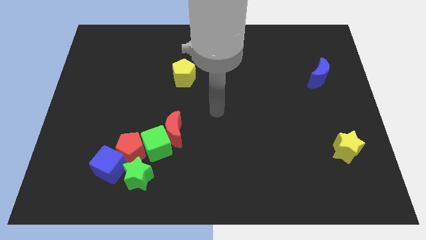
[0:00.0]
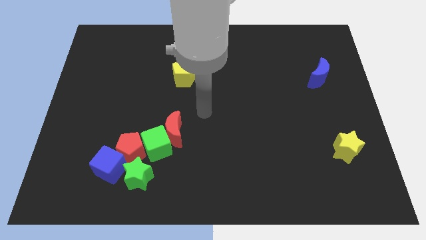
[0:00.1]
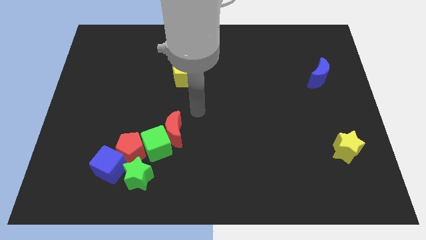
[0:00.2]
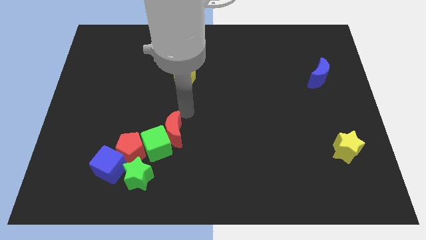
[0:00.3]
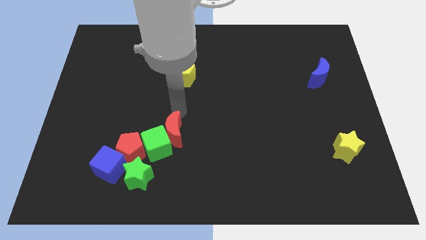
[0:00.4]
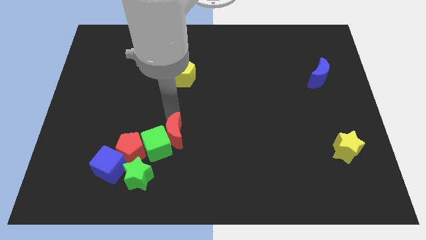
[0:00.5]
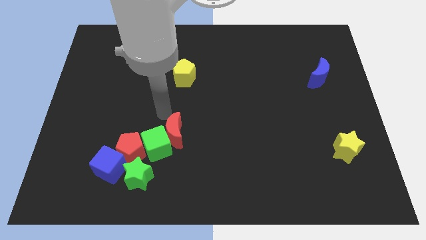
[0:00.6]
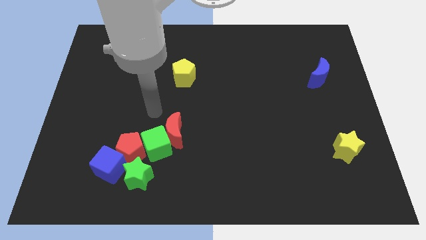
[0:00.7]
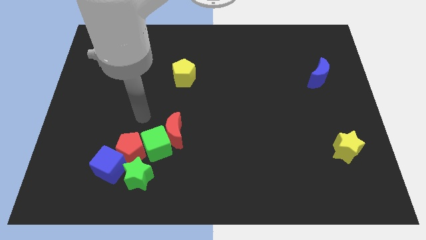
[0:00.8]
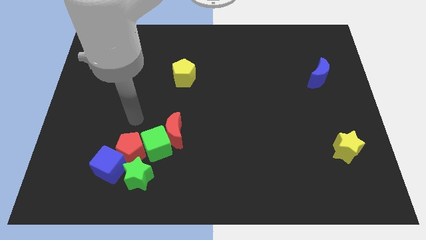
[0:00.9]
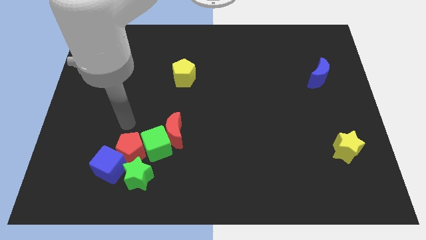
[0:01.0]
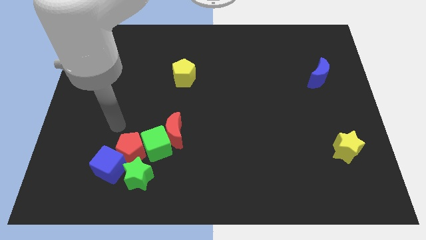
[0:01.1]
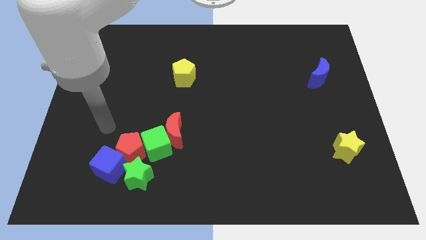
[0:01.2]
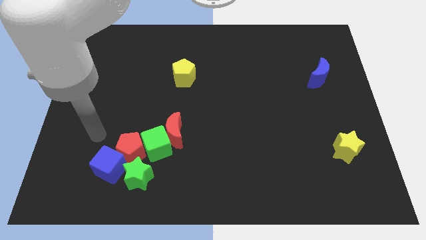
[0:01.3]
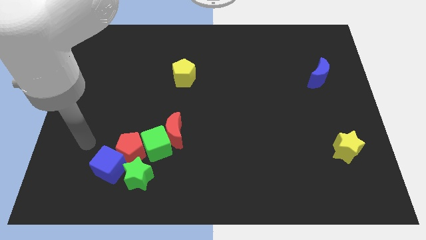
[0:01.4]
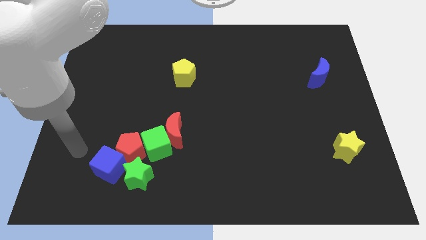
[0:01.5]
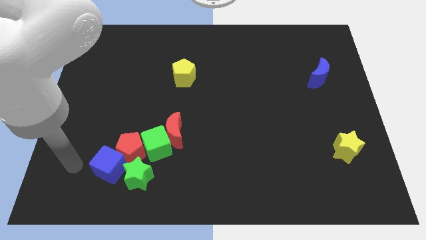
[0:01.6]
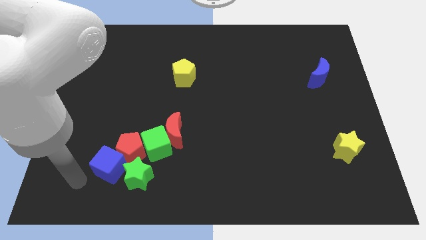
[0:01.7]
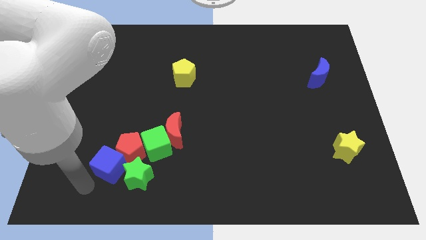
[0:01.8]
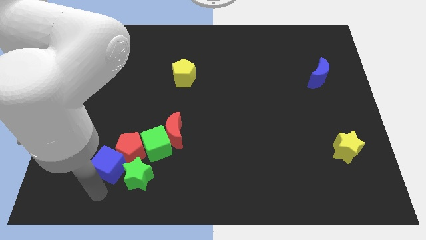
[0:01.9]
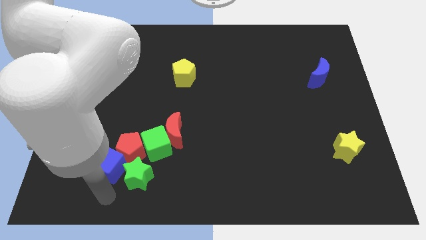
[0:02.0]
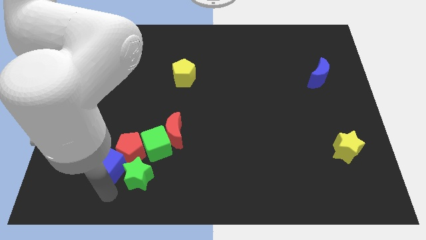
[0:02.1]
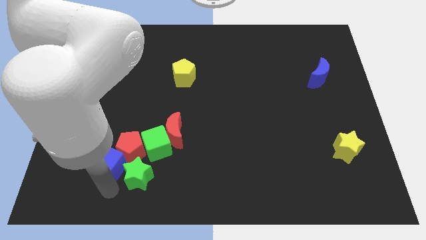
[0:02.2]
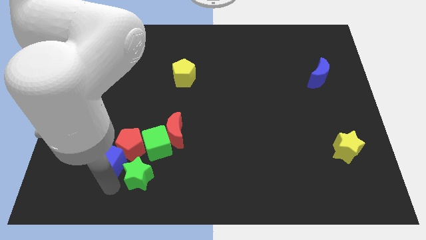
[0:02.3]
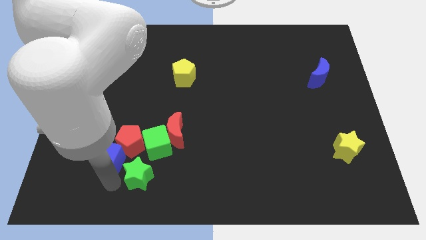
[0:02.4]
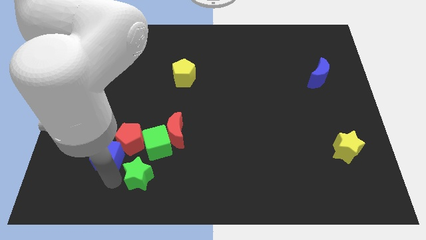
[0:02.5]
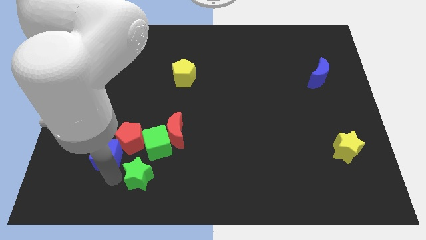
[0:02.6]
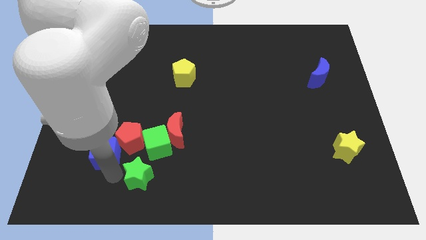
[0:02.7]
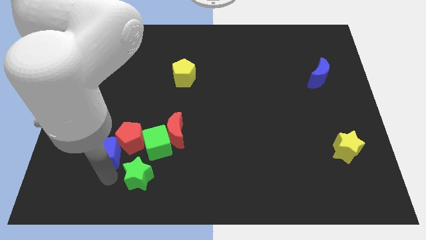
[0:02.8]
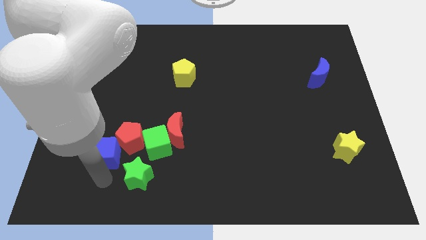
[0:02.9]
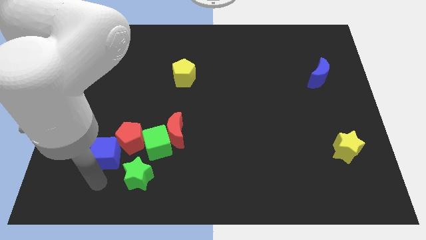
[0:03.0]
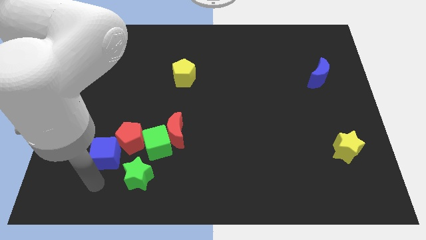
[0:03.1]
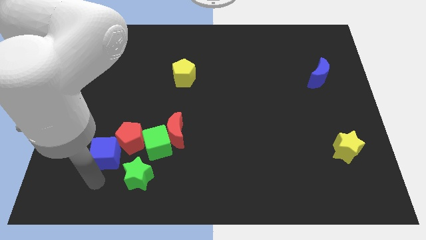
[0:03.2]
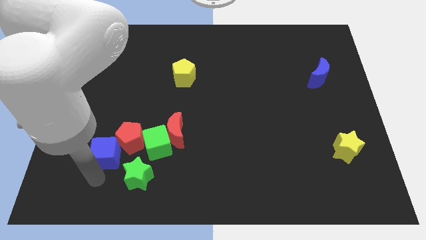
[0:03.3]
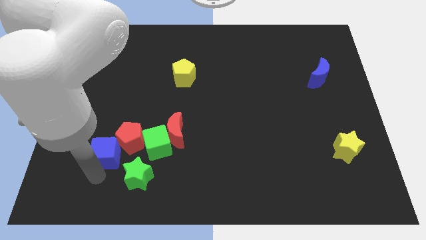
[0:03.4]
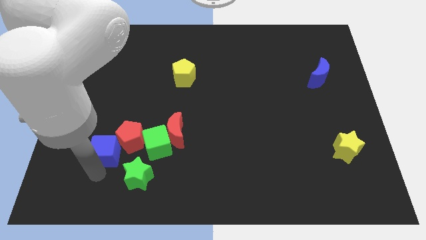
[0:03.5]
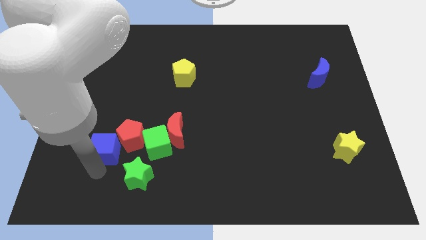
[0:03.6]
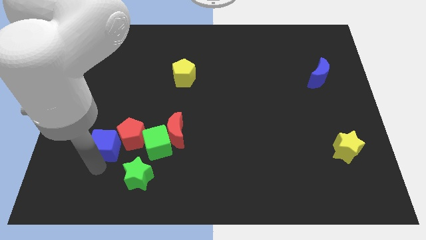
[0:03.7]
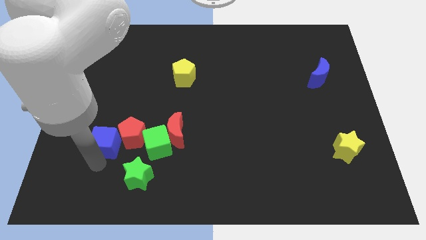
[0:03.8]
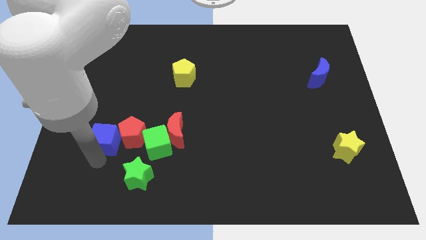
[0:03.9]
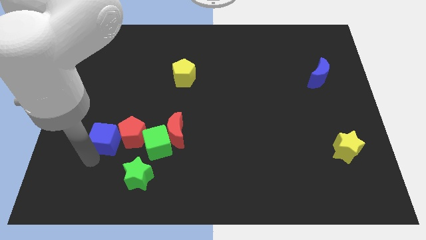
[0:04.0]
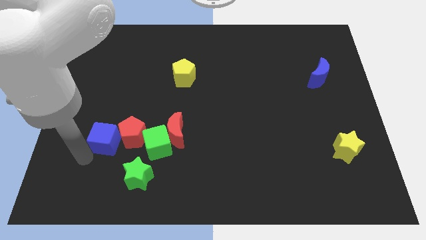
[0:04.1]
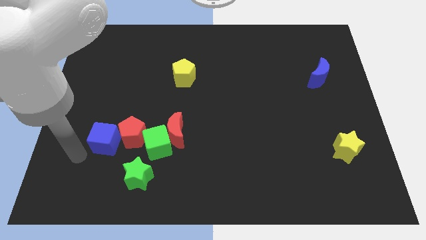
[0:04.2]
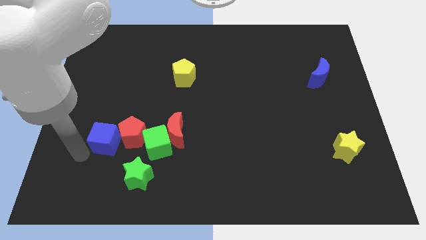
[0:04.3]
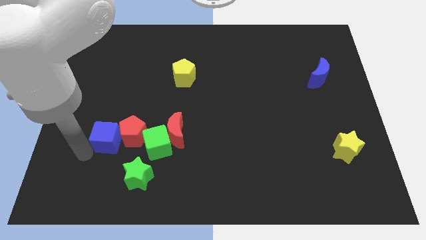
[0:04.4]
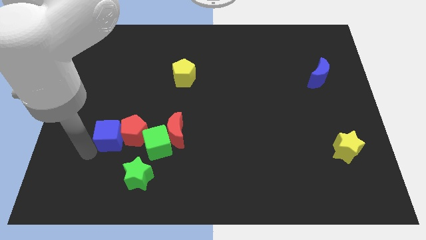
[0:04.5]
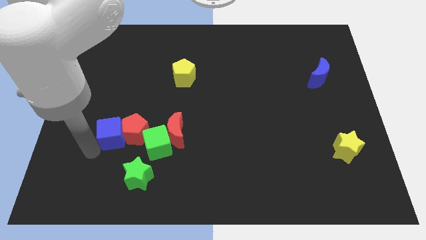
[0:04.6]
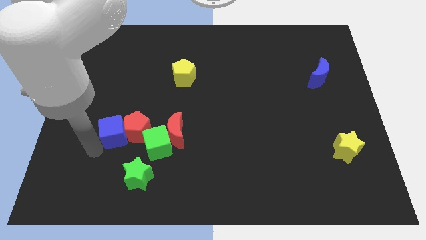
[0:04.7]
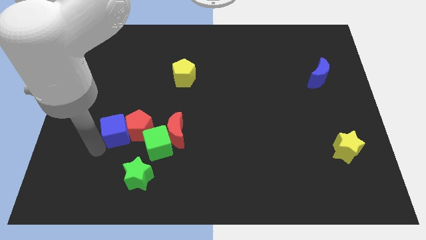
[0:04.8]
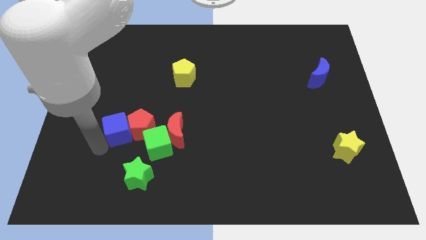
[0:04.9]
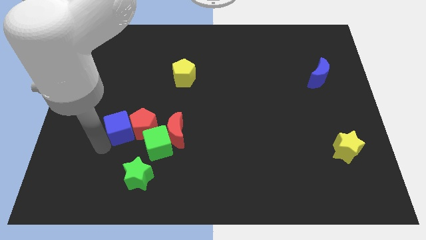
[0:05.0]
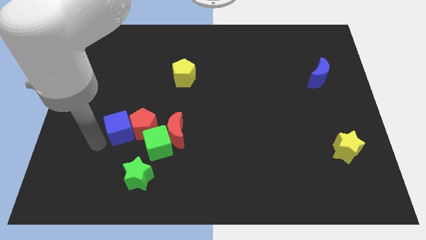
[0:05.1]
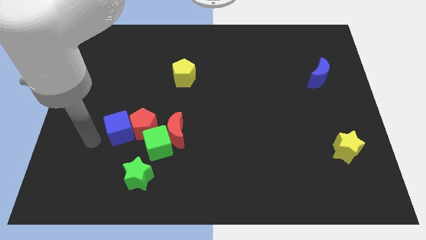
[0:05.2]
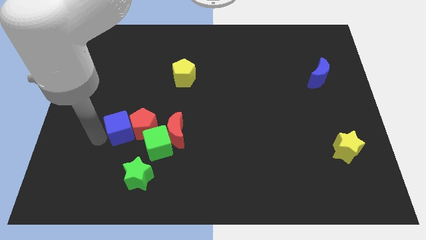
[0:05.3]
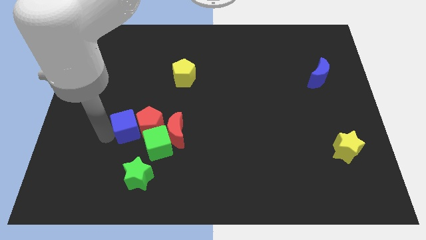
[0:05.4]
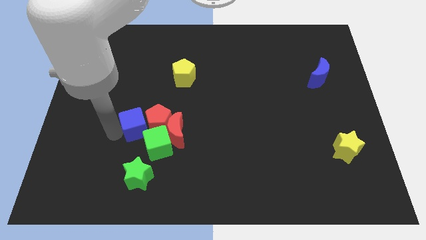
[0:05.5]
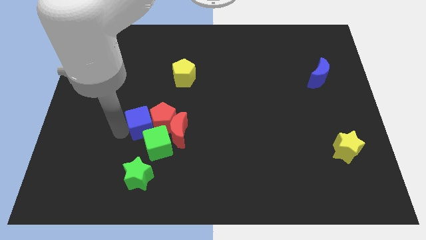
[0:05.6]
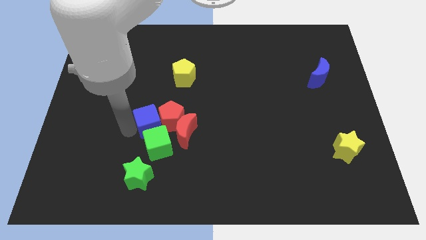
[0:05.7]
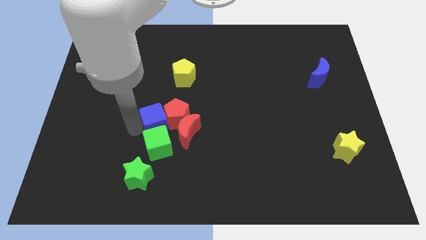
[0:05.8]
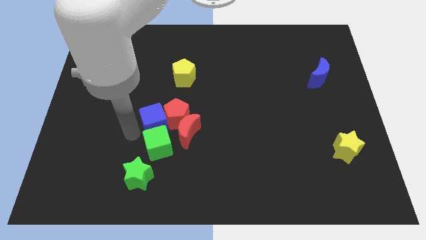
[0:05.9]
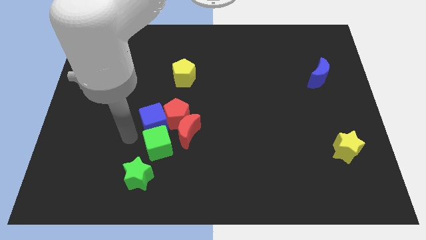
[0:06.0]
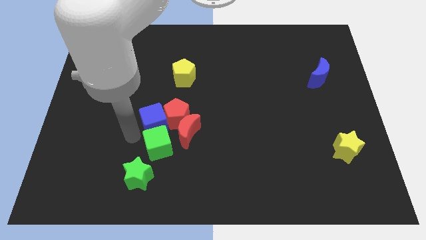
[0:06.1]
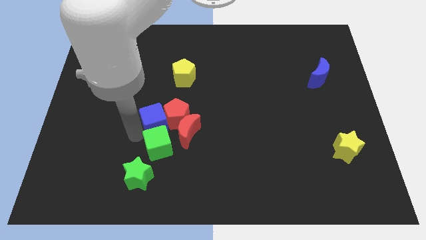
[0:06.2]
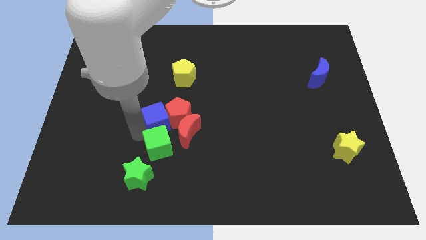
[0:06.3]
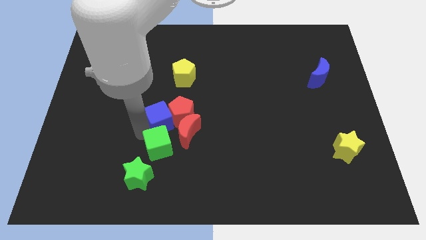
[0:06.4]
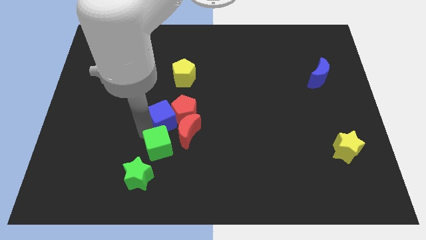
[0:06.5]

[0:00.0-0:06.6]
push the blue cube to the bottom of the yellow pentagon

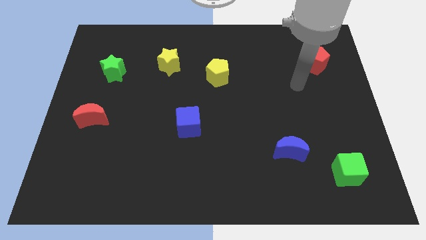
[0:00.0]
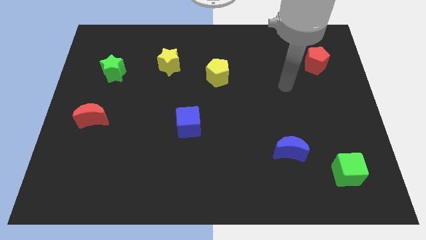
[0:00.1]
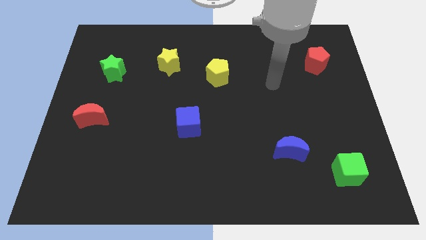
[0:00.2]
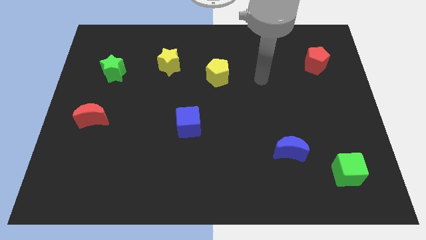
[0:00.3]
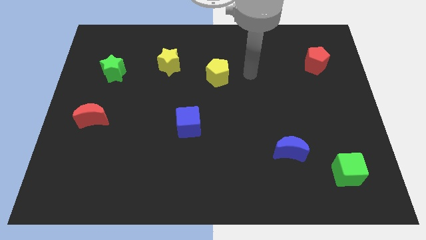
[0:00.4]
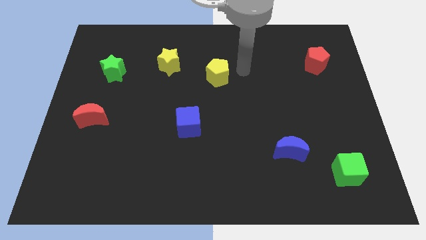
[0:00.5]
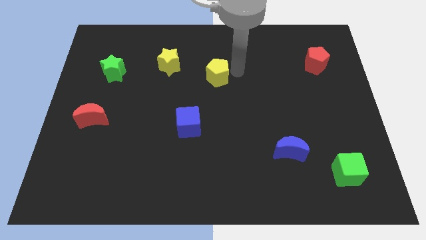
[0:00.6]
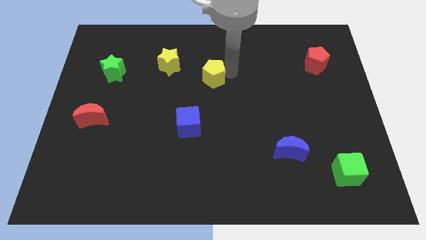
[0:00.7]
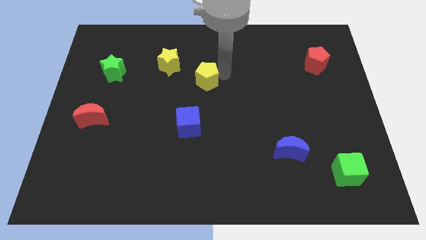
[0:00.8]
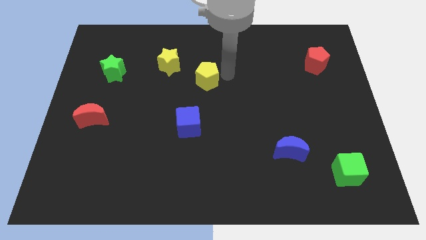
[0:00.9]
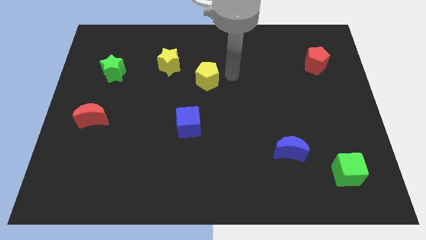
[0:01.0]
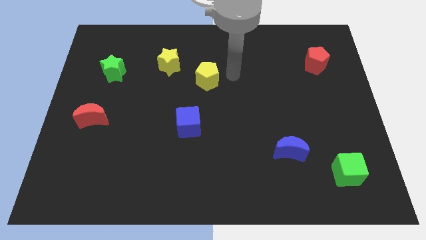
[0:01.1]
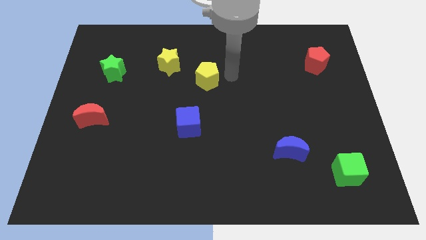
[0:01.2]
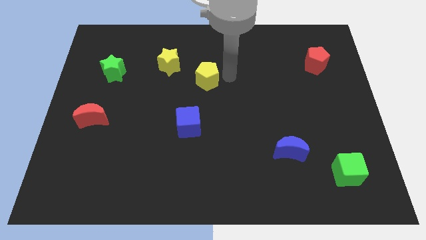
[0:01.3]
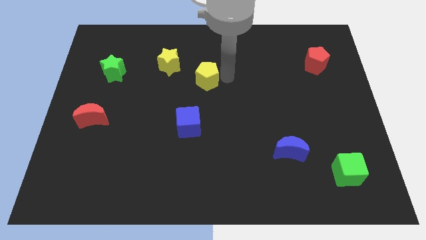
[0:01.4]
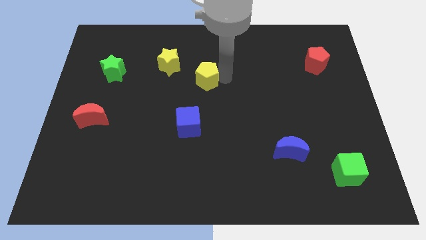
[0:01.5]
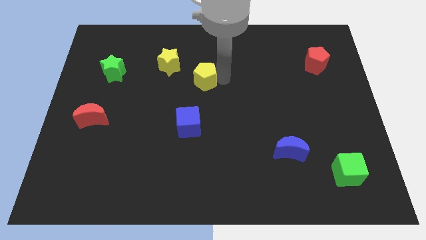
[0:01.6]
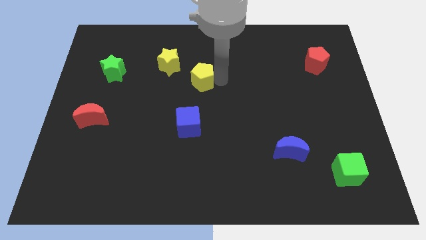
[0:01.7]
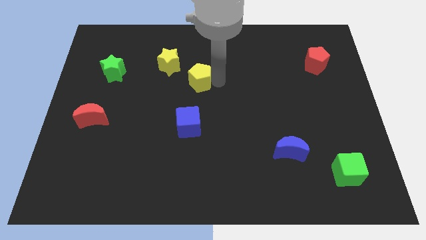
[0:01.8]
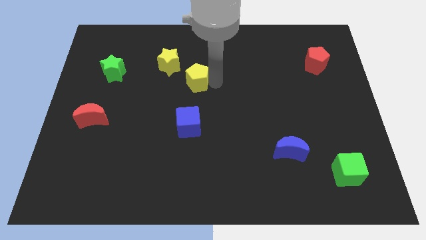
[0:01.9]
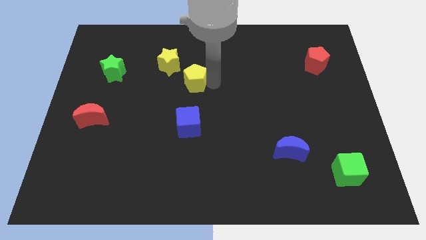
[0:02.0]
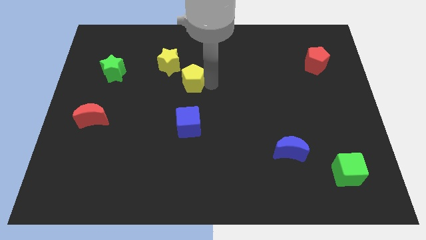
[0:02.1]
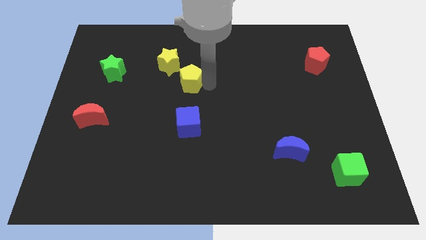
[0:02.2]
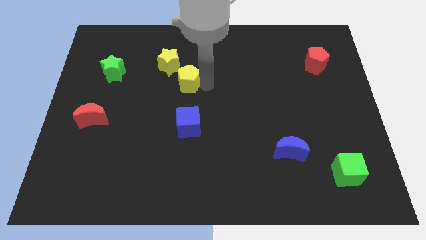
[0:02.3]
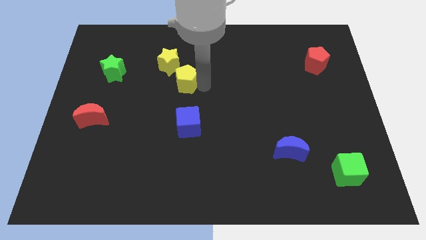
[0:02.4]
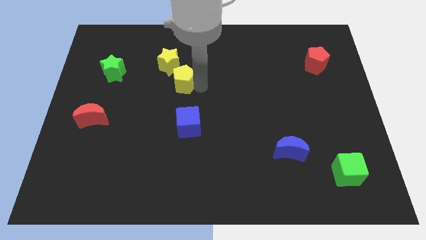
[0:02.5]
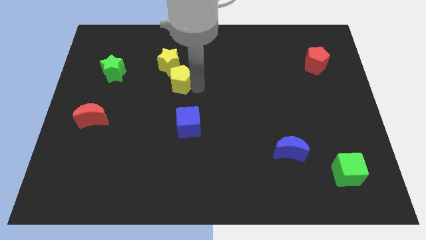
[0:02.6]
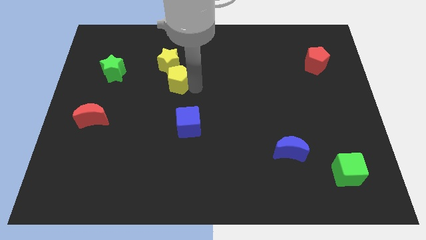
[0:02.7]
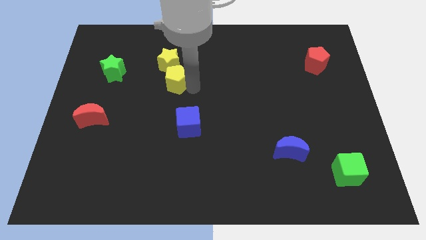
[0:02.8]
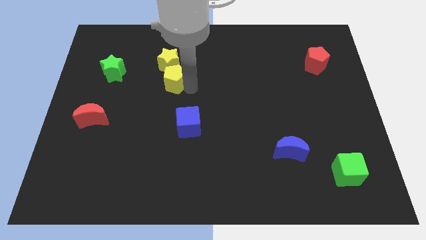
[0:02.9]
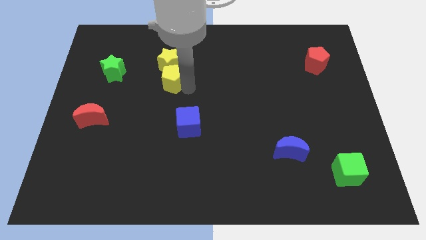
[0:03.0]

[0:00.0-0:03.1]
slide the yellow pentagon to the bottom left side of the yellow star
